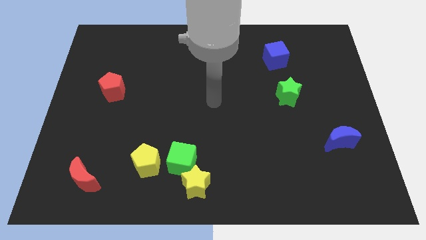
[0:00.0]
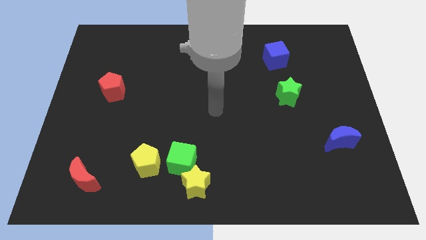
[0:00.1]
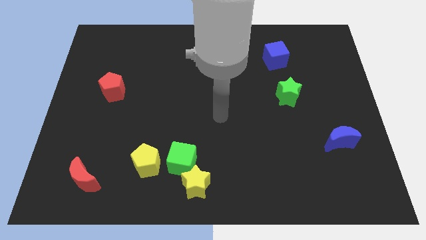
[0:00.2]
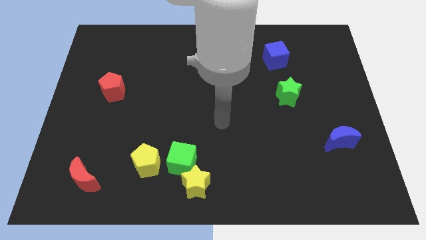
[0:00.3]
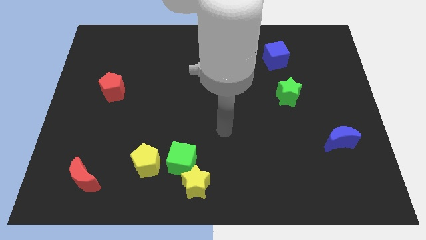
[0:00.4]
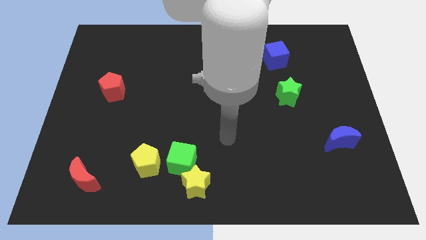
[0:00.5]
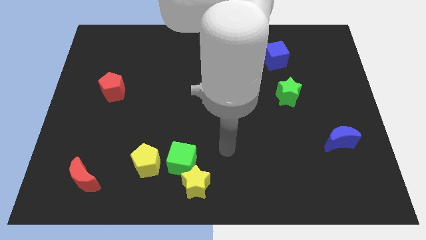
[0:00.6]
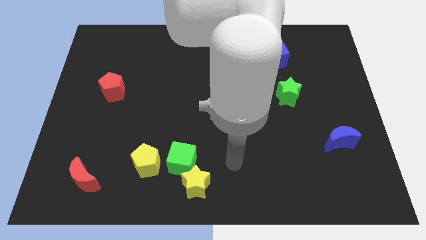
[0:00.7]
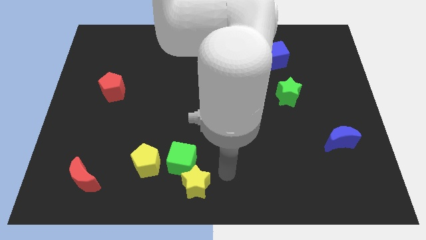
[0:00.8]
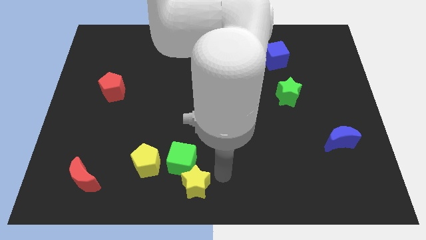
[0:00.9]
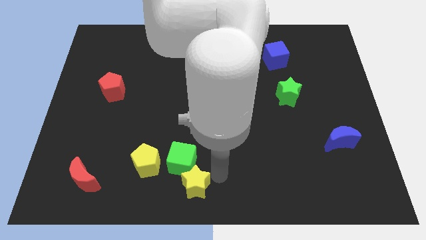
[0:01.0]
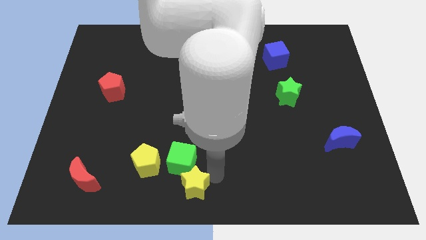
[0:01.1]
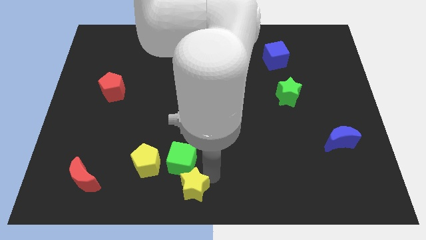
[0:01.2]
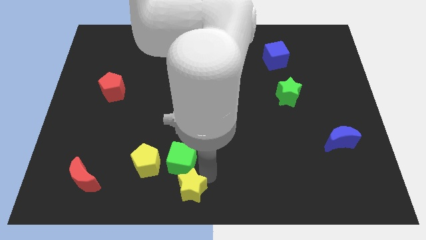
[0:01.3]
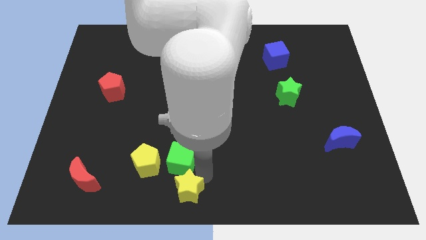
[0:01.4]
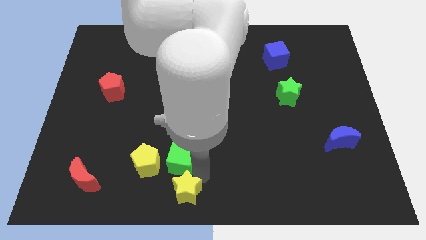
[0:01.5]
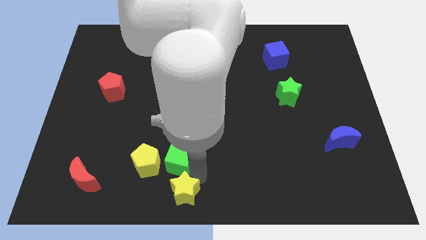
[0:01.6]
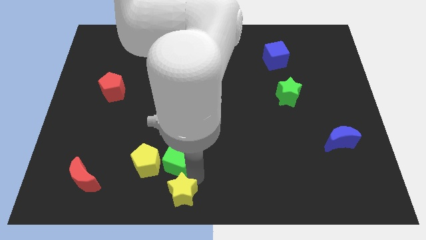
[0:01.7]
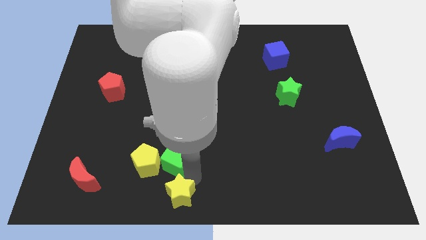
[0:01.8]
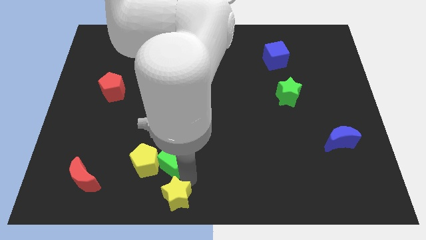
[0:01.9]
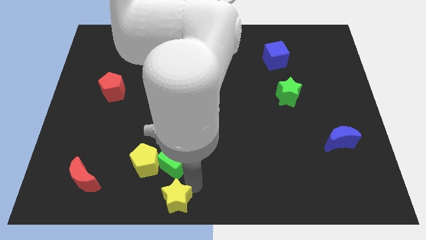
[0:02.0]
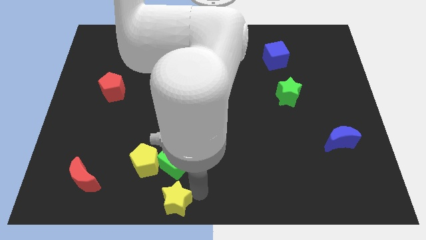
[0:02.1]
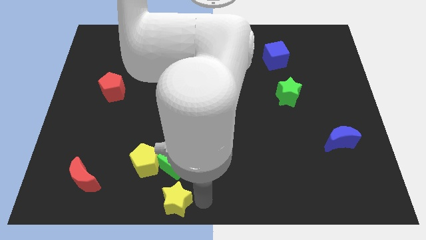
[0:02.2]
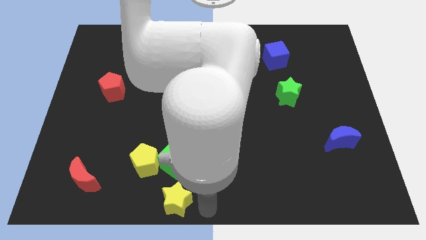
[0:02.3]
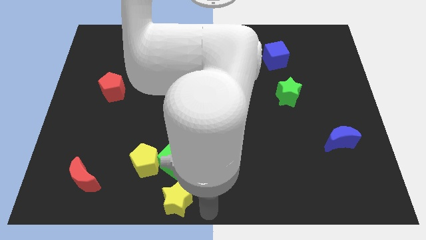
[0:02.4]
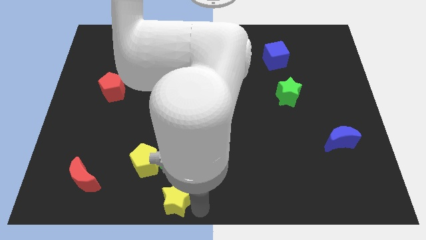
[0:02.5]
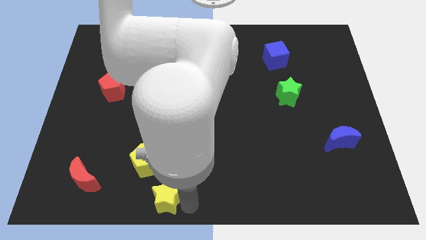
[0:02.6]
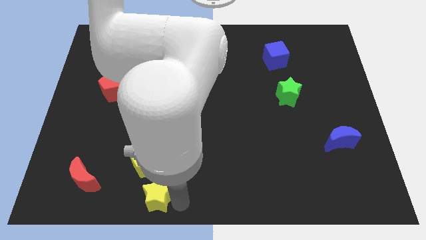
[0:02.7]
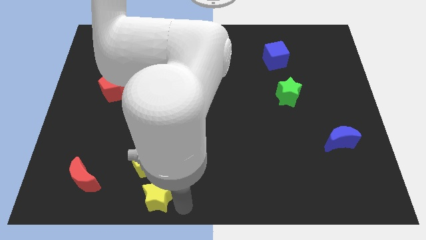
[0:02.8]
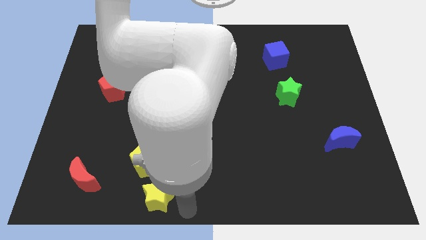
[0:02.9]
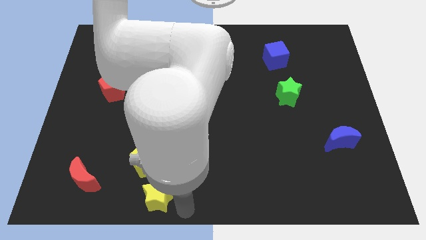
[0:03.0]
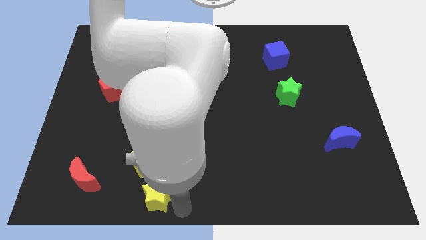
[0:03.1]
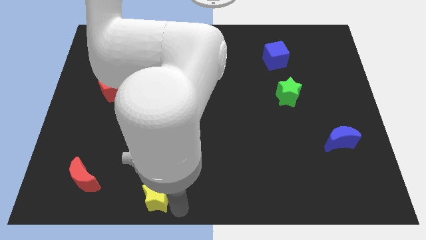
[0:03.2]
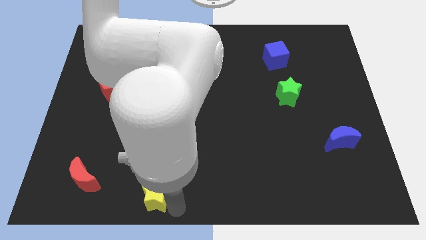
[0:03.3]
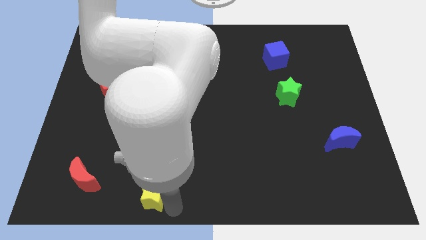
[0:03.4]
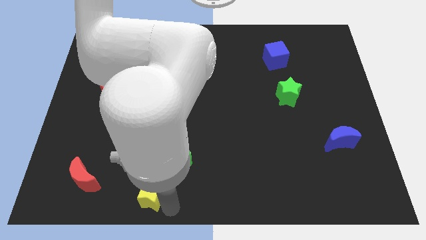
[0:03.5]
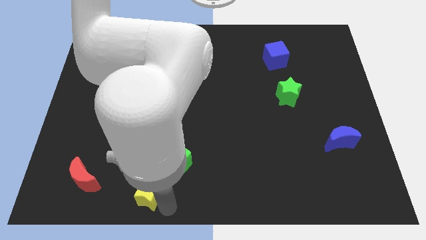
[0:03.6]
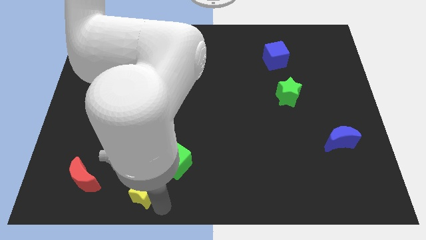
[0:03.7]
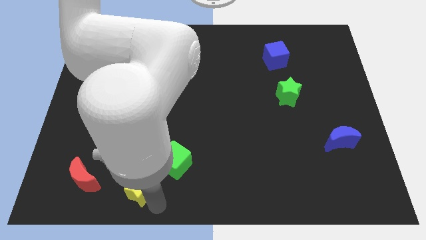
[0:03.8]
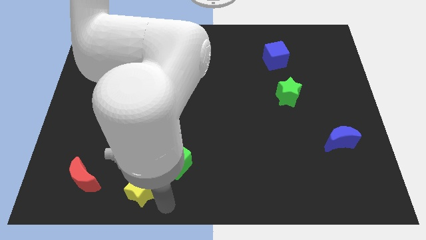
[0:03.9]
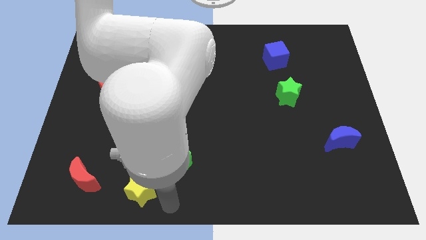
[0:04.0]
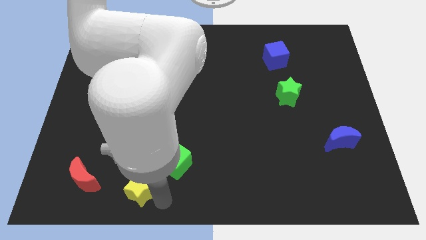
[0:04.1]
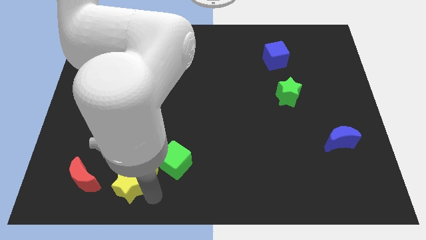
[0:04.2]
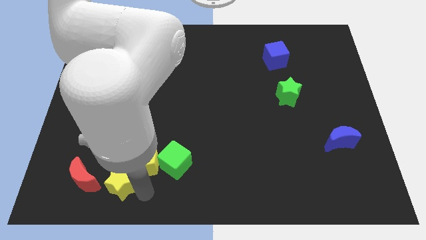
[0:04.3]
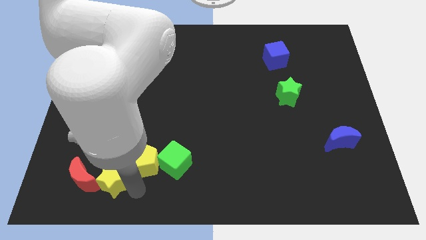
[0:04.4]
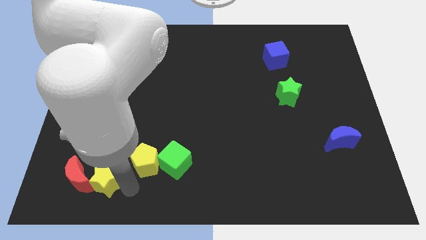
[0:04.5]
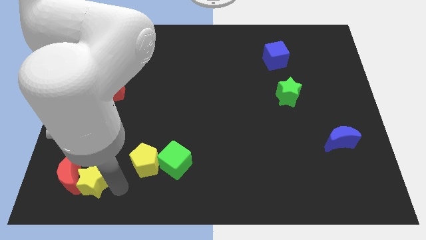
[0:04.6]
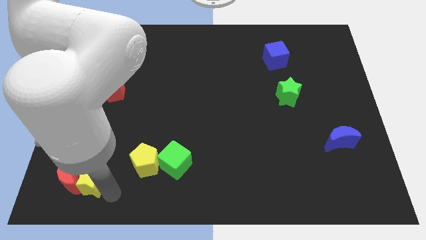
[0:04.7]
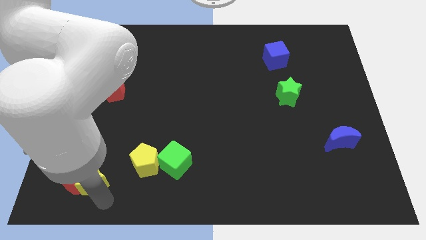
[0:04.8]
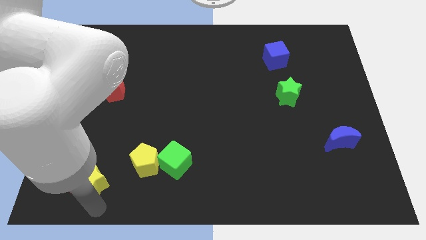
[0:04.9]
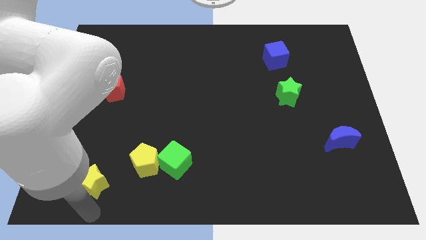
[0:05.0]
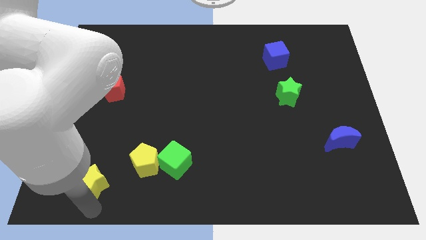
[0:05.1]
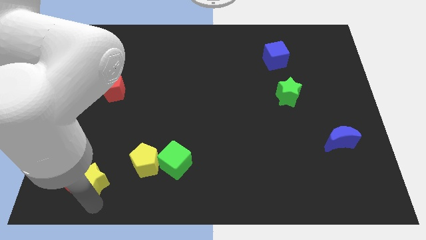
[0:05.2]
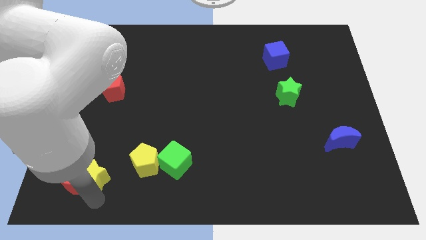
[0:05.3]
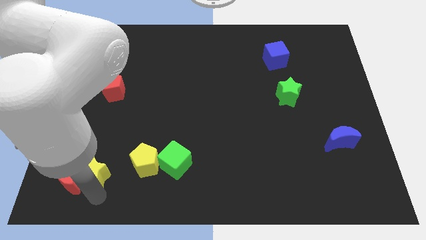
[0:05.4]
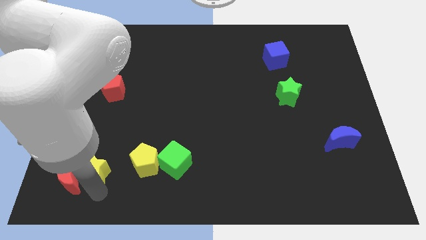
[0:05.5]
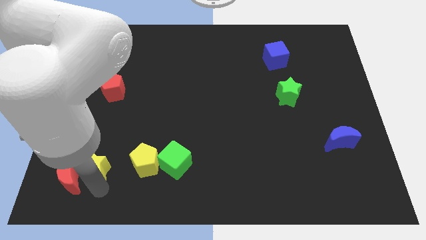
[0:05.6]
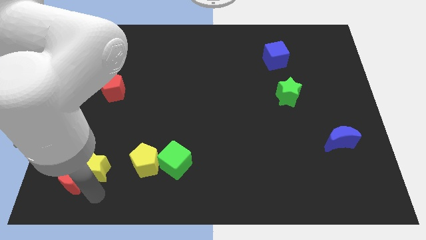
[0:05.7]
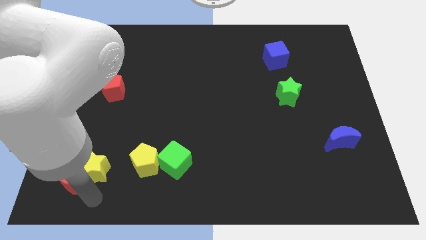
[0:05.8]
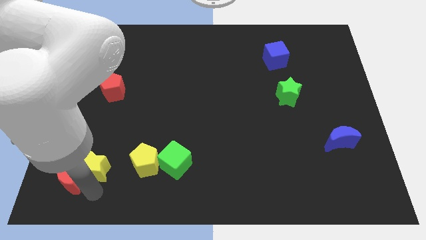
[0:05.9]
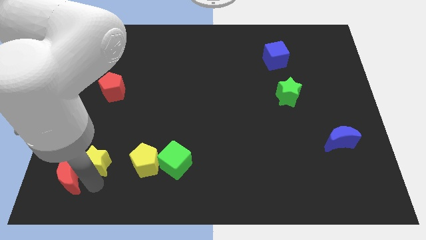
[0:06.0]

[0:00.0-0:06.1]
move the yellow star to the top side of the red moon

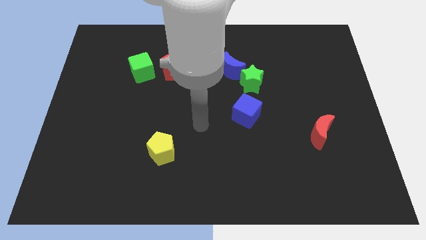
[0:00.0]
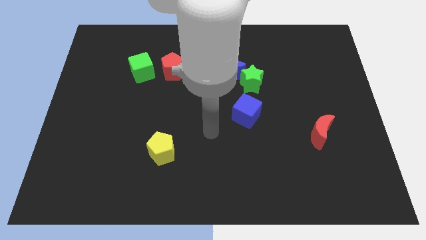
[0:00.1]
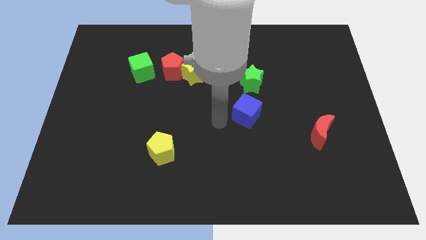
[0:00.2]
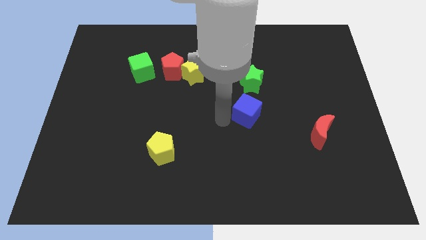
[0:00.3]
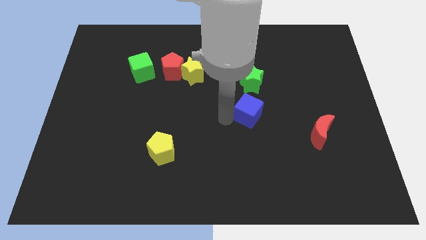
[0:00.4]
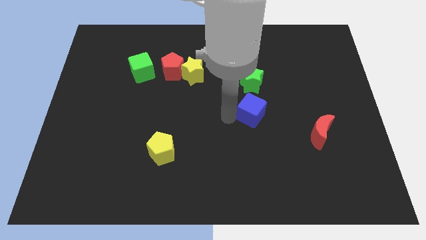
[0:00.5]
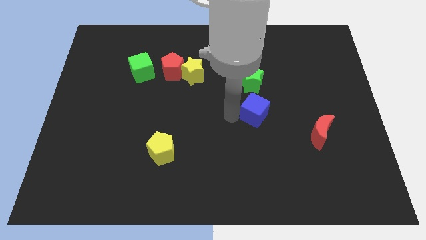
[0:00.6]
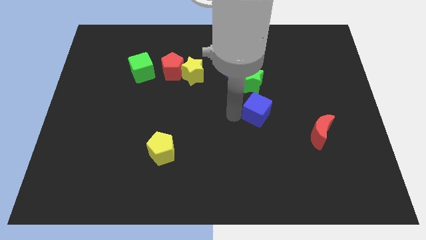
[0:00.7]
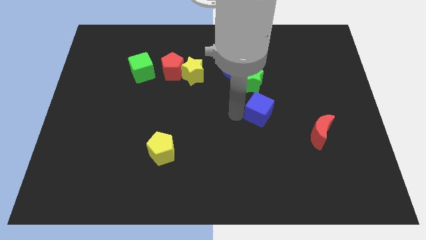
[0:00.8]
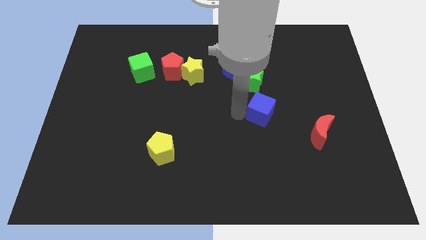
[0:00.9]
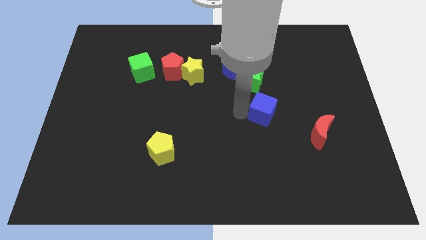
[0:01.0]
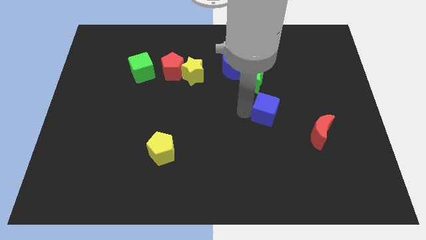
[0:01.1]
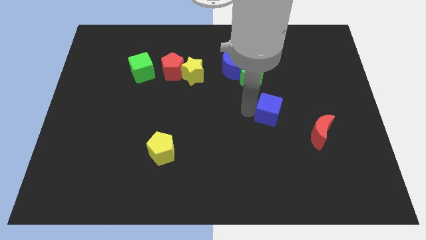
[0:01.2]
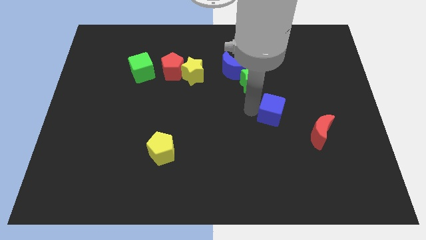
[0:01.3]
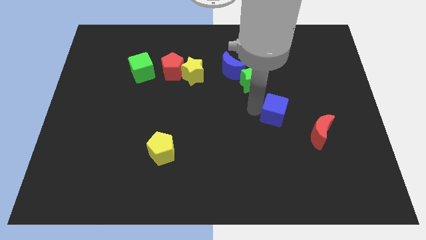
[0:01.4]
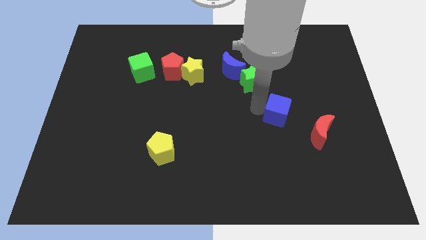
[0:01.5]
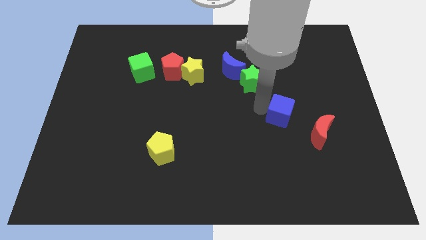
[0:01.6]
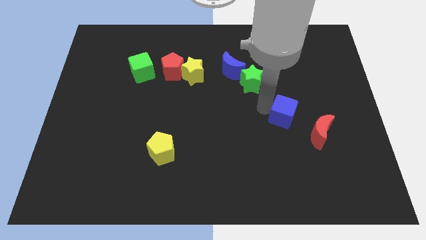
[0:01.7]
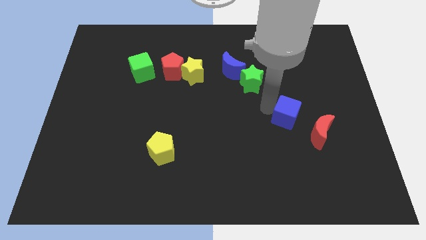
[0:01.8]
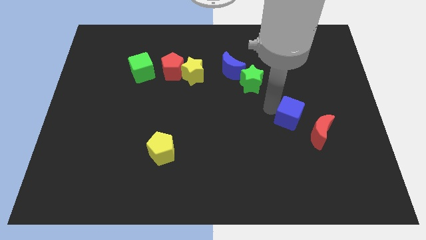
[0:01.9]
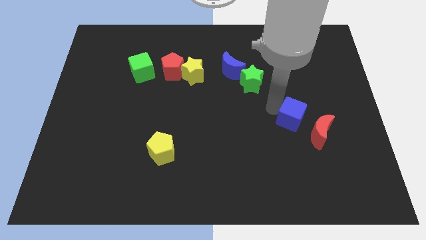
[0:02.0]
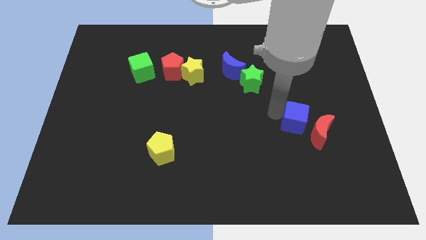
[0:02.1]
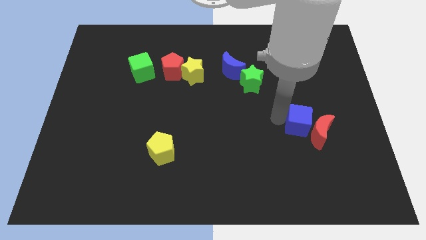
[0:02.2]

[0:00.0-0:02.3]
move the blue cube to the top side of the red moon
